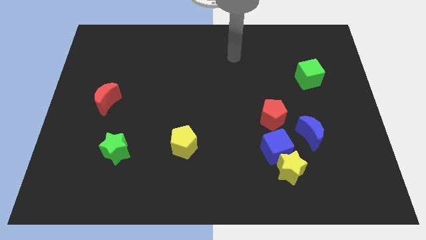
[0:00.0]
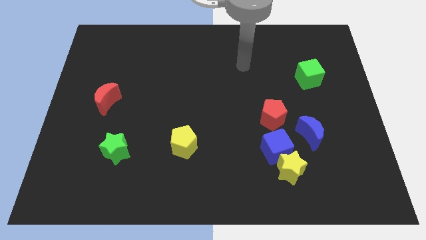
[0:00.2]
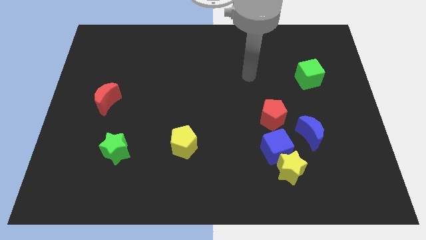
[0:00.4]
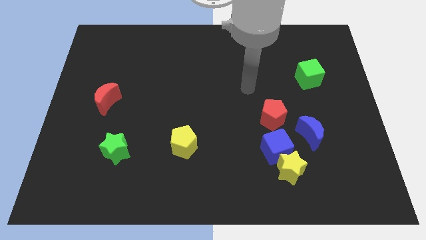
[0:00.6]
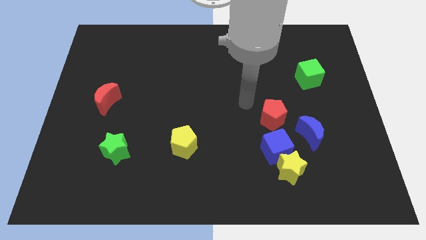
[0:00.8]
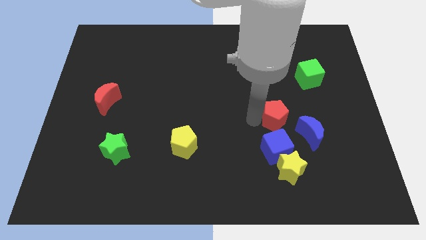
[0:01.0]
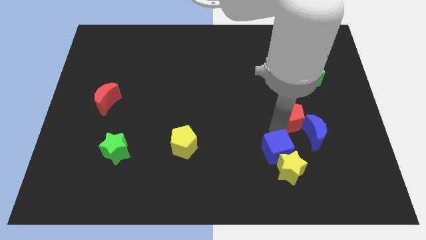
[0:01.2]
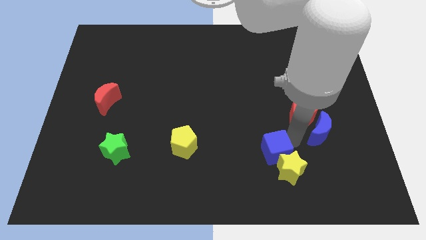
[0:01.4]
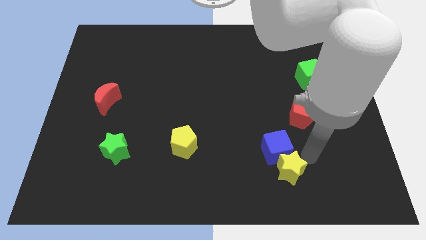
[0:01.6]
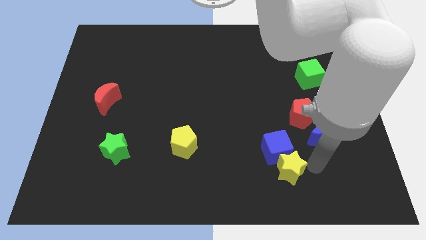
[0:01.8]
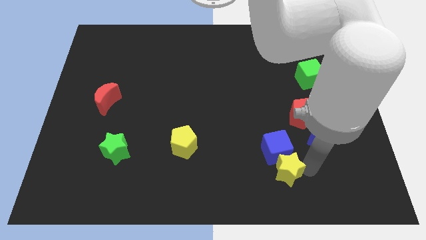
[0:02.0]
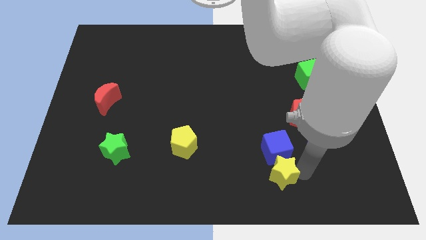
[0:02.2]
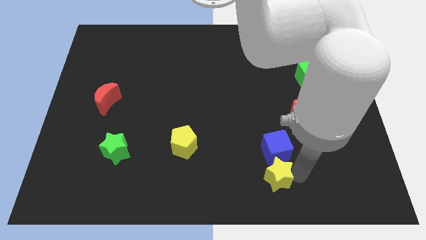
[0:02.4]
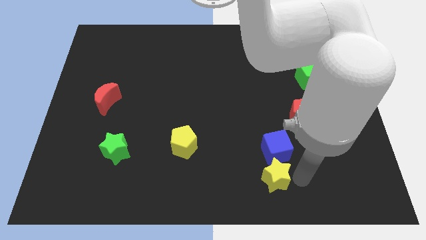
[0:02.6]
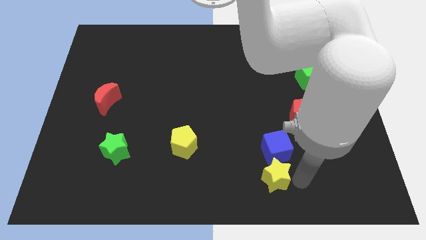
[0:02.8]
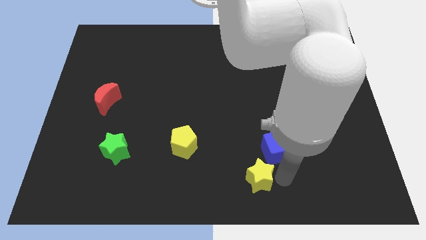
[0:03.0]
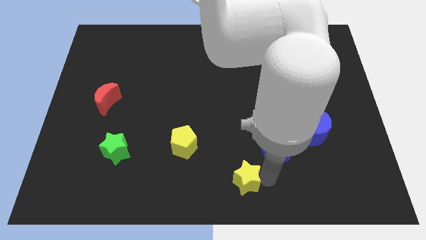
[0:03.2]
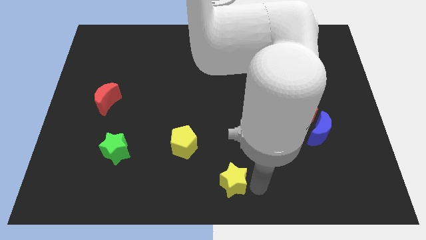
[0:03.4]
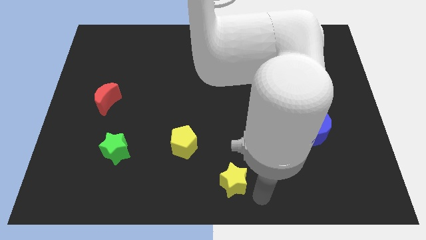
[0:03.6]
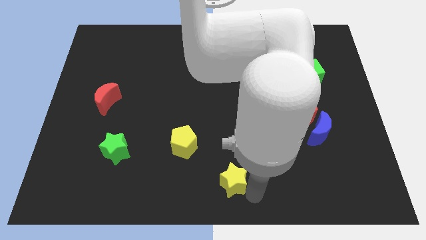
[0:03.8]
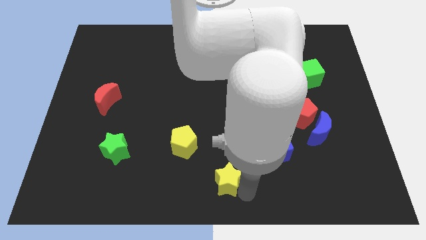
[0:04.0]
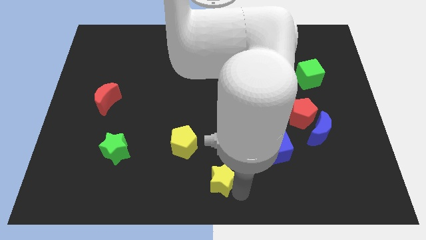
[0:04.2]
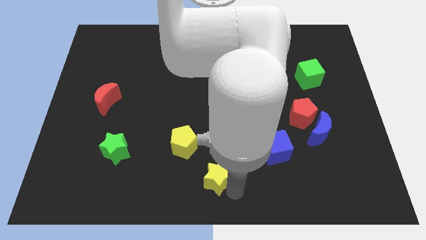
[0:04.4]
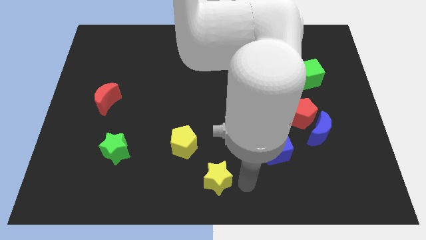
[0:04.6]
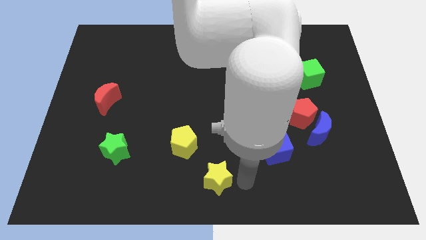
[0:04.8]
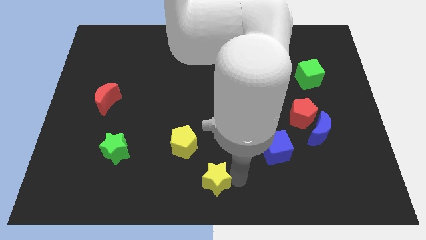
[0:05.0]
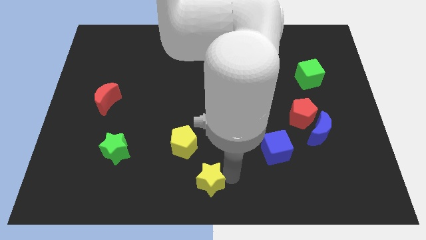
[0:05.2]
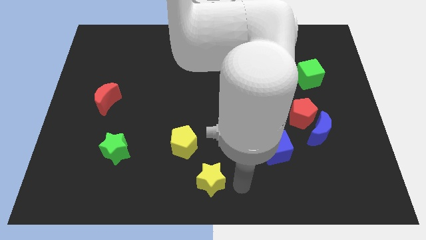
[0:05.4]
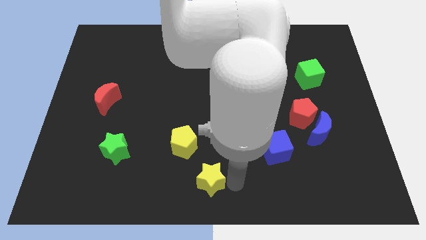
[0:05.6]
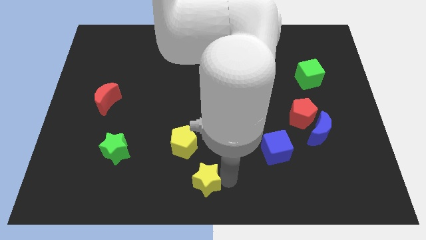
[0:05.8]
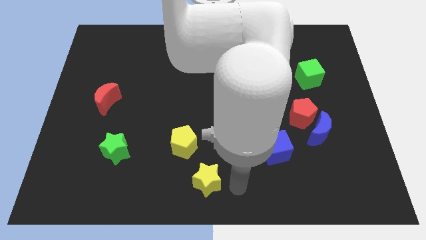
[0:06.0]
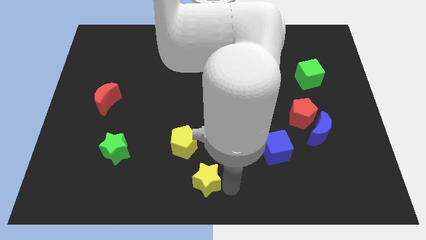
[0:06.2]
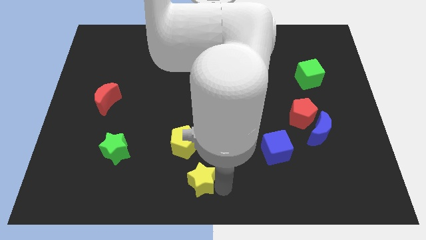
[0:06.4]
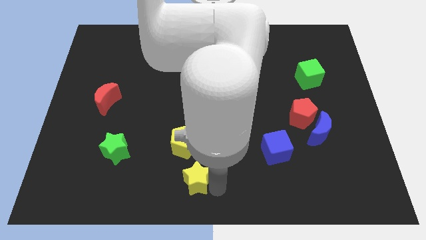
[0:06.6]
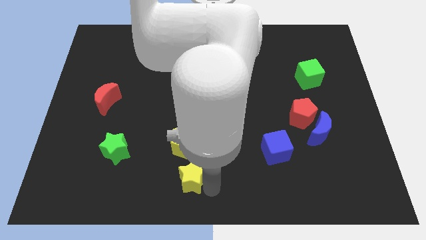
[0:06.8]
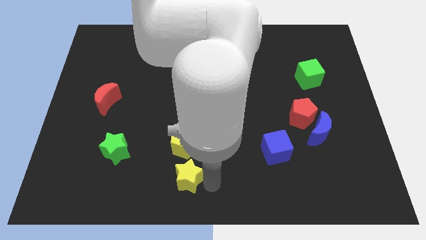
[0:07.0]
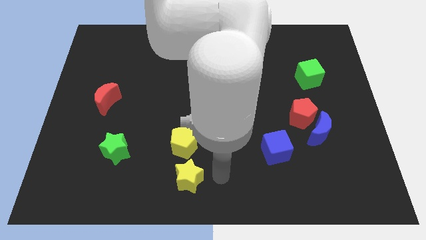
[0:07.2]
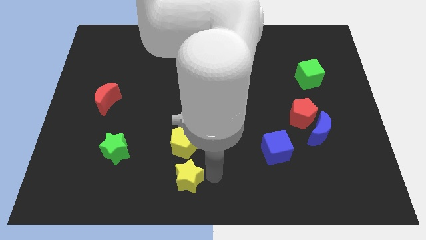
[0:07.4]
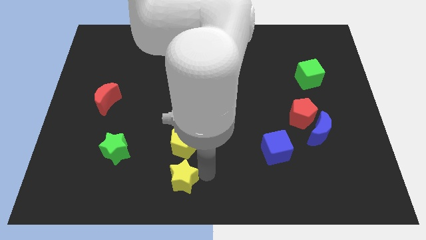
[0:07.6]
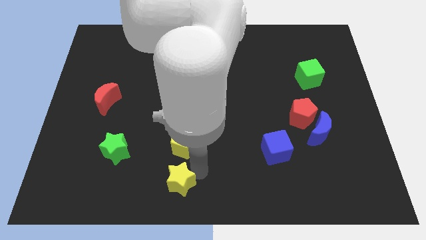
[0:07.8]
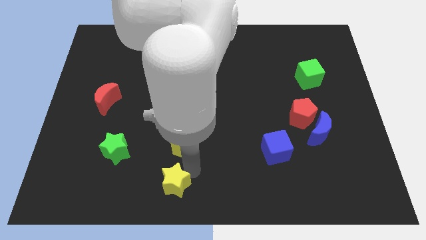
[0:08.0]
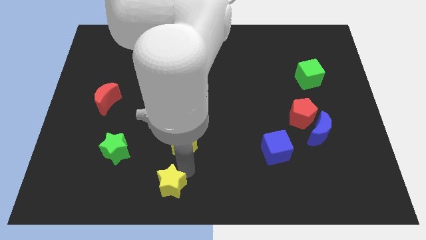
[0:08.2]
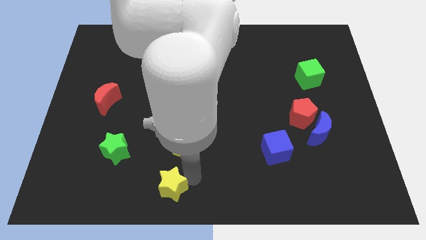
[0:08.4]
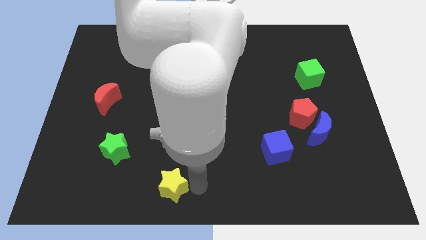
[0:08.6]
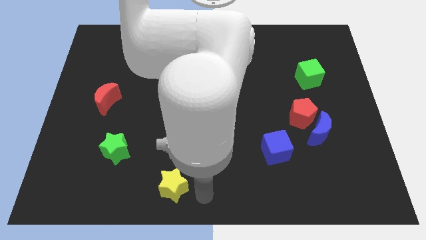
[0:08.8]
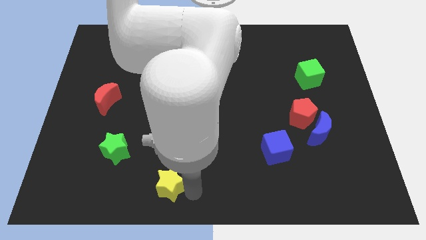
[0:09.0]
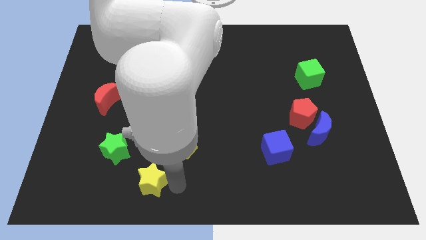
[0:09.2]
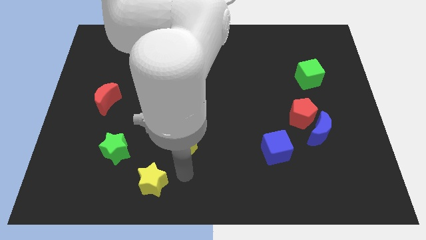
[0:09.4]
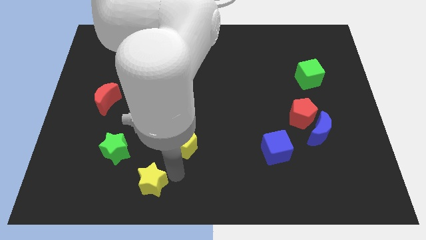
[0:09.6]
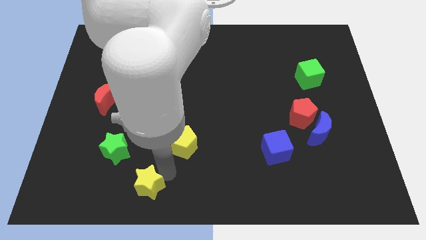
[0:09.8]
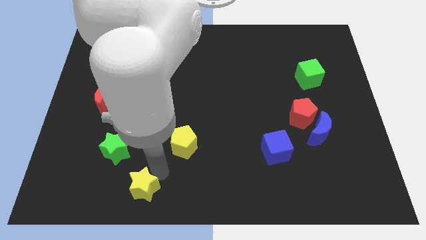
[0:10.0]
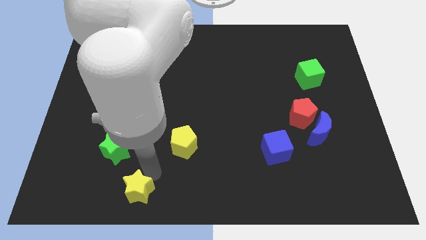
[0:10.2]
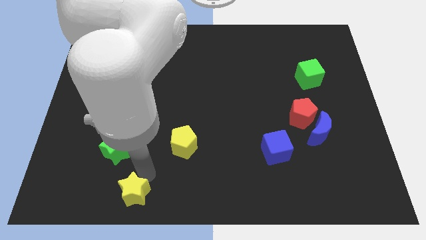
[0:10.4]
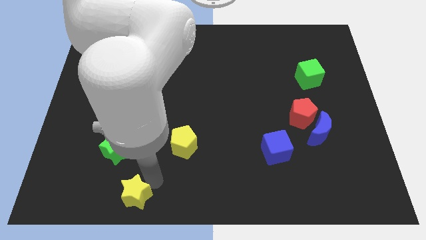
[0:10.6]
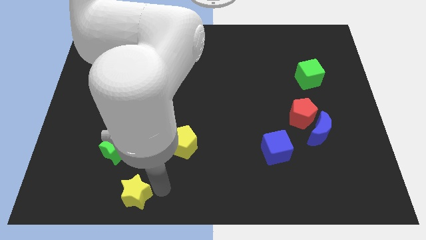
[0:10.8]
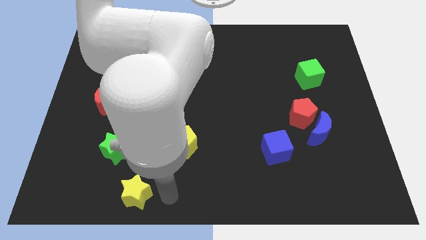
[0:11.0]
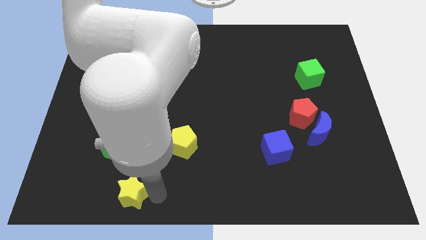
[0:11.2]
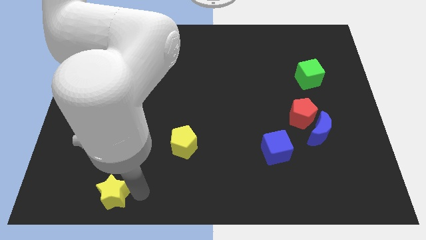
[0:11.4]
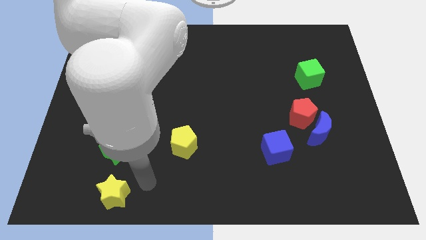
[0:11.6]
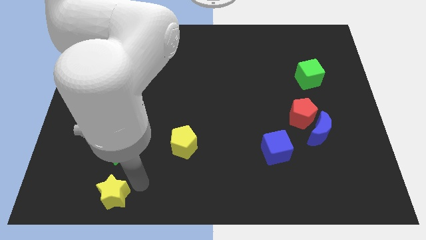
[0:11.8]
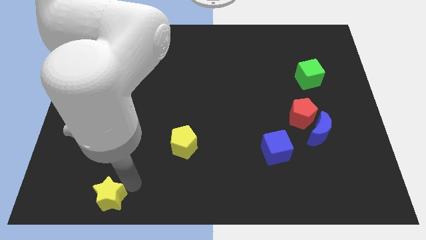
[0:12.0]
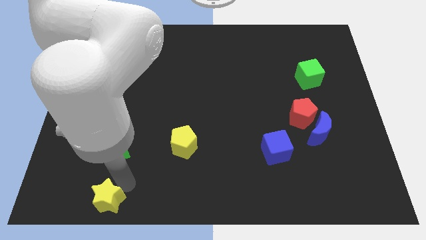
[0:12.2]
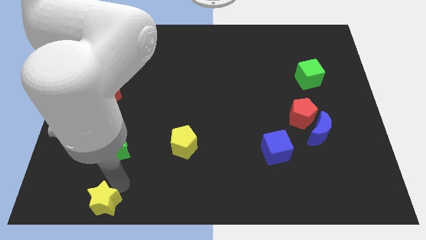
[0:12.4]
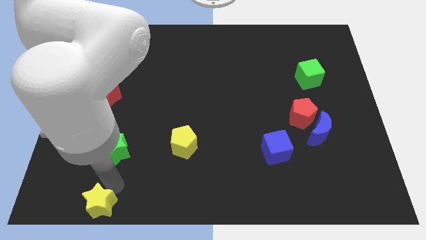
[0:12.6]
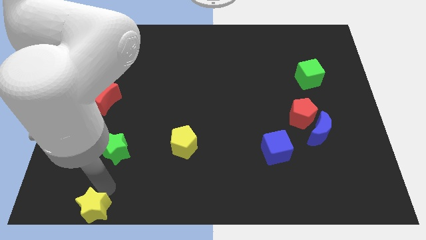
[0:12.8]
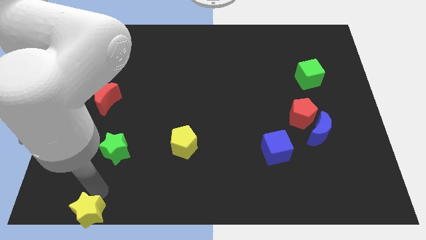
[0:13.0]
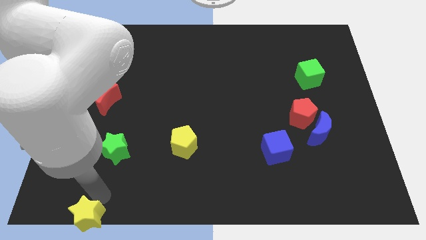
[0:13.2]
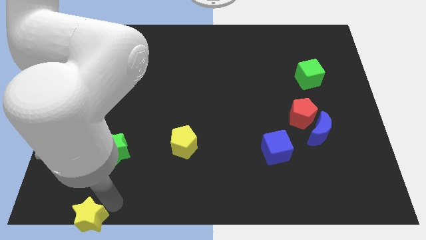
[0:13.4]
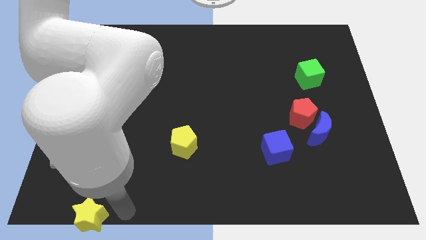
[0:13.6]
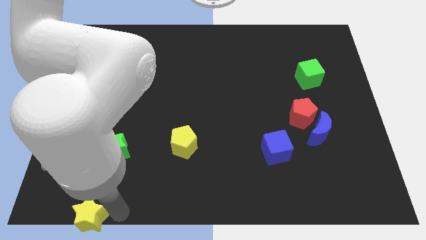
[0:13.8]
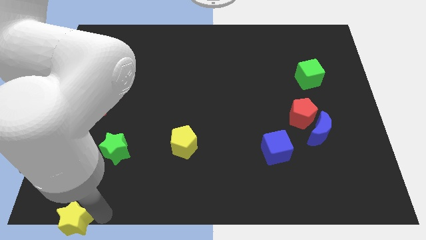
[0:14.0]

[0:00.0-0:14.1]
put the yellow star to the lower left corner
